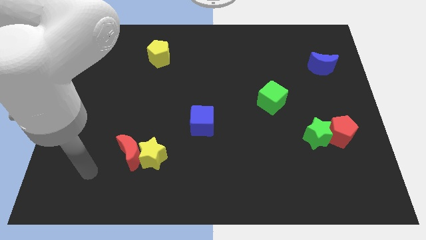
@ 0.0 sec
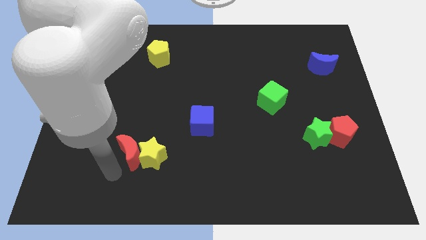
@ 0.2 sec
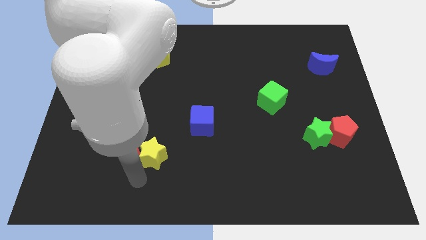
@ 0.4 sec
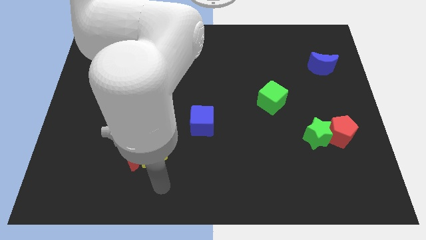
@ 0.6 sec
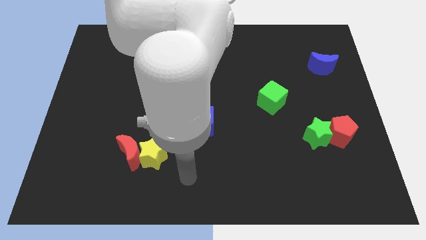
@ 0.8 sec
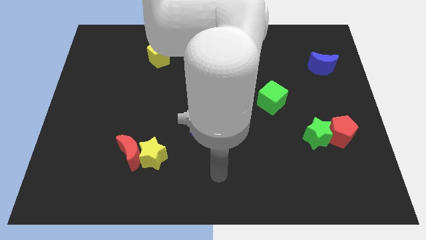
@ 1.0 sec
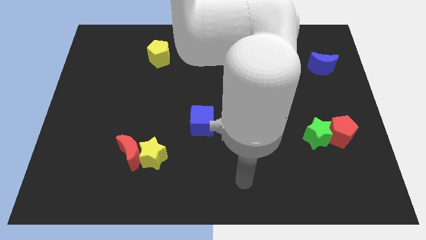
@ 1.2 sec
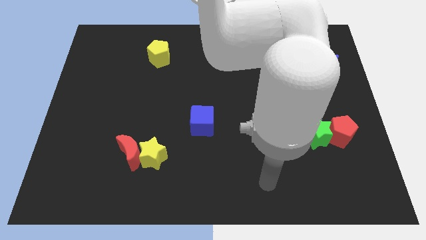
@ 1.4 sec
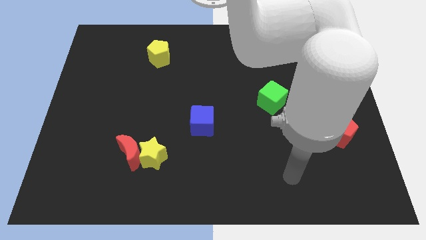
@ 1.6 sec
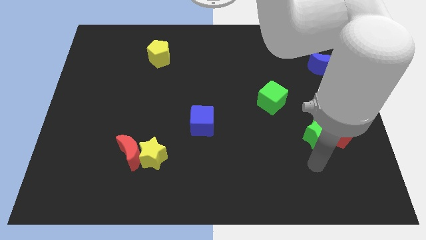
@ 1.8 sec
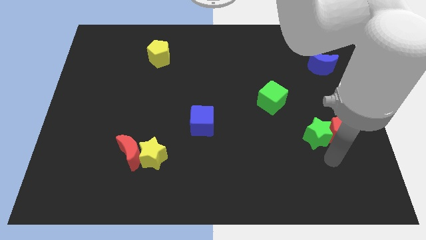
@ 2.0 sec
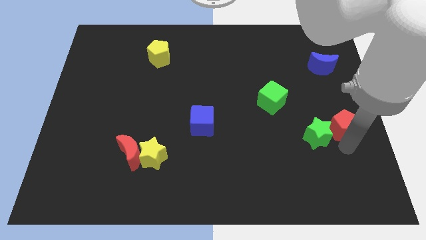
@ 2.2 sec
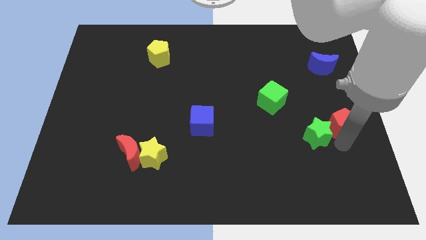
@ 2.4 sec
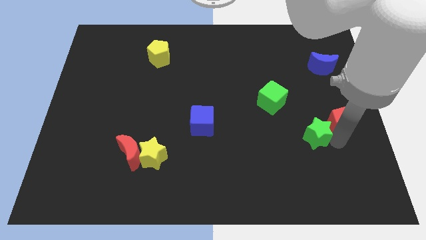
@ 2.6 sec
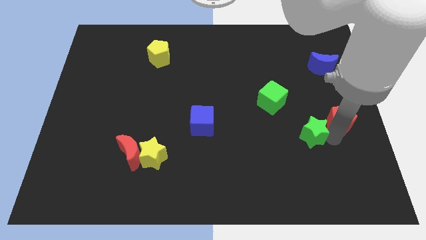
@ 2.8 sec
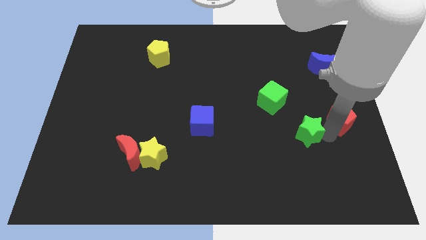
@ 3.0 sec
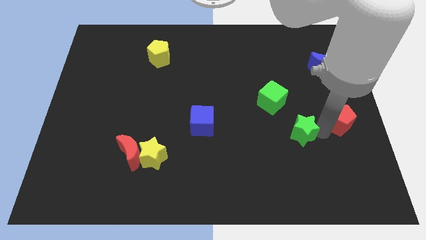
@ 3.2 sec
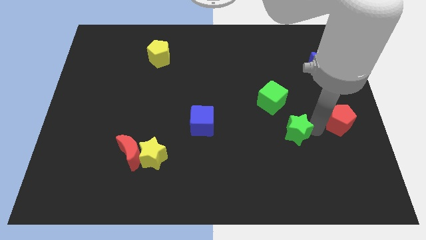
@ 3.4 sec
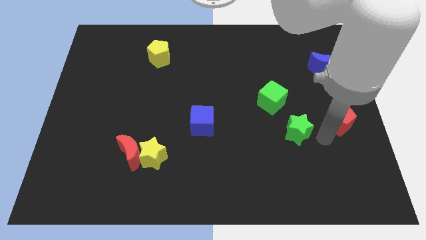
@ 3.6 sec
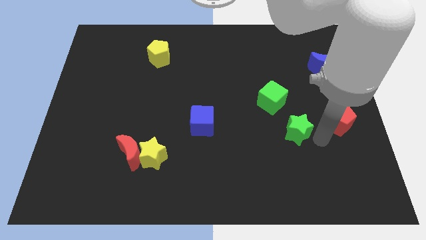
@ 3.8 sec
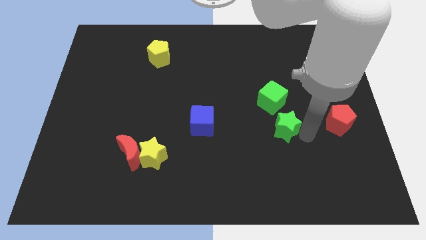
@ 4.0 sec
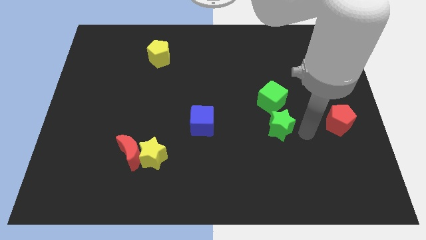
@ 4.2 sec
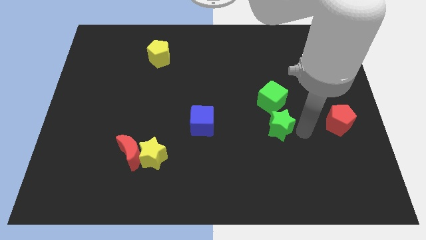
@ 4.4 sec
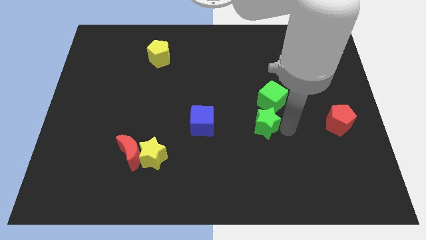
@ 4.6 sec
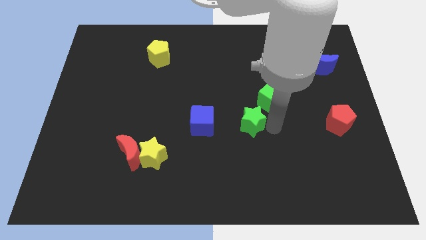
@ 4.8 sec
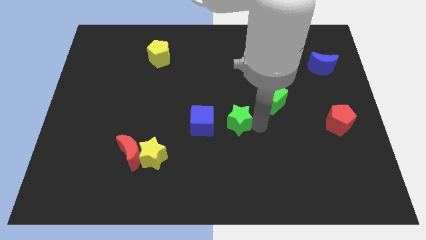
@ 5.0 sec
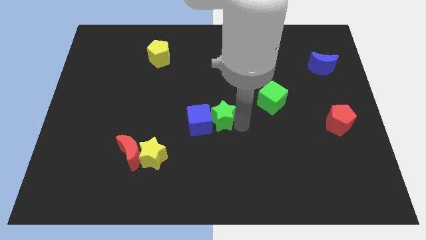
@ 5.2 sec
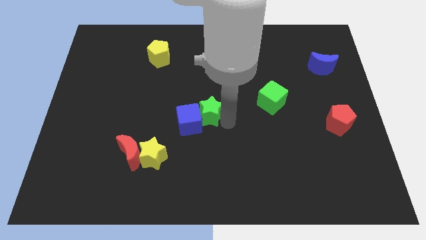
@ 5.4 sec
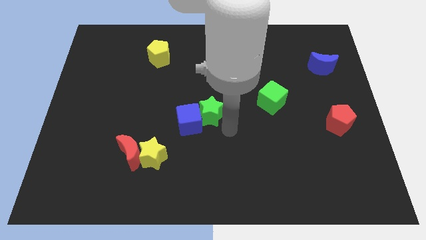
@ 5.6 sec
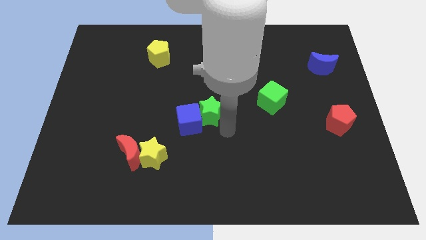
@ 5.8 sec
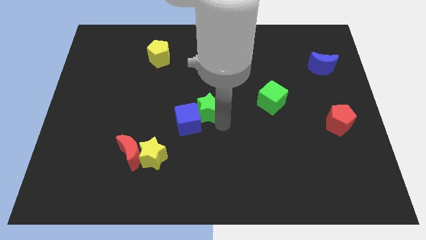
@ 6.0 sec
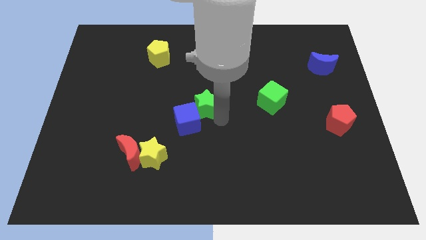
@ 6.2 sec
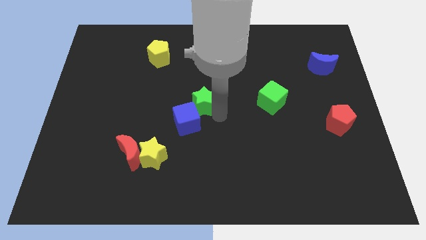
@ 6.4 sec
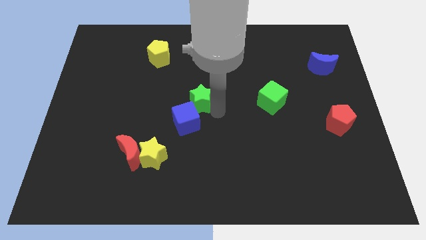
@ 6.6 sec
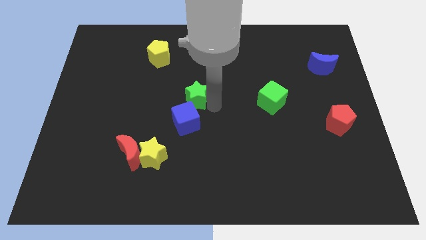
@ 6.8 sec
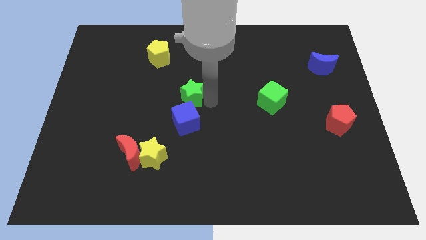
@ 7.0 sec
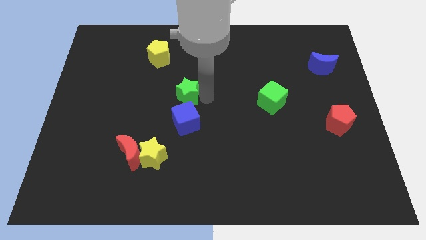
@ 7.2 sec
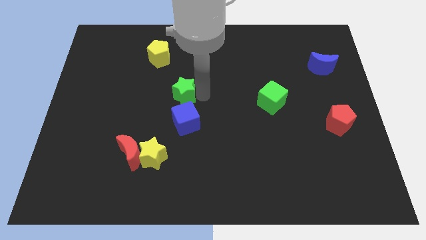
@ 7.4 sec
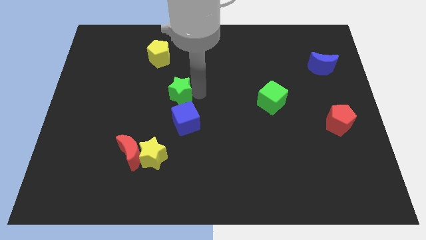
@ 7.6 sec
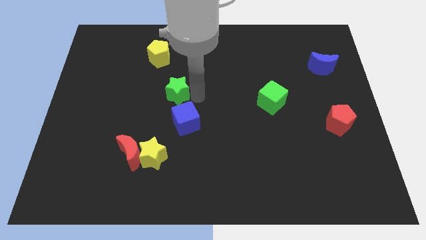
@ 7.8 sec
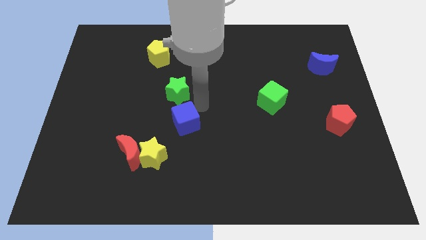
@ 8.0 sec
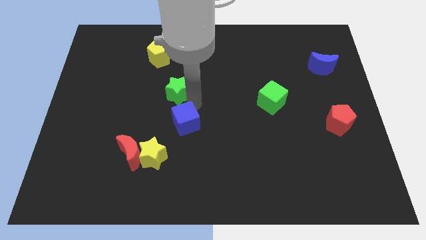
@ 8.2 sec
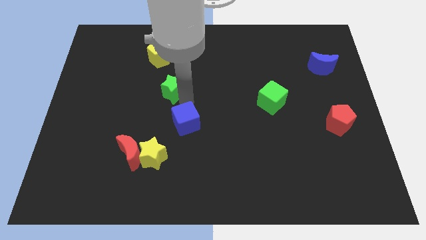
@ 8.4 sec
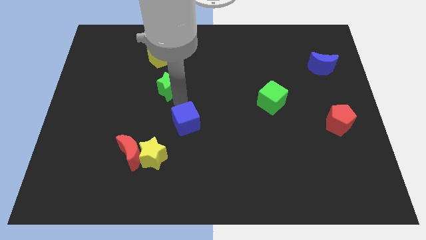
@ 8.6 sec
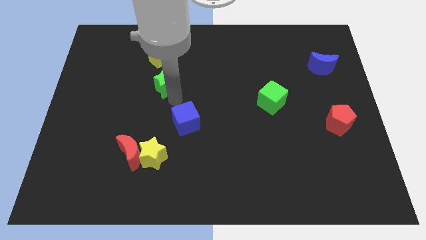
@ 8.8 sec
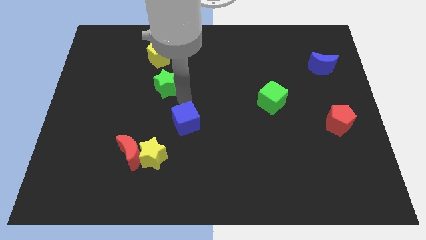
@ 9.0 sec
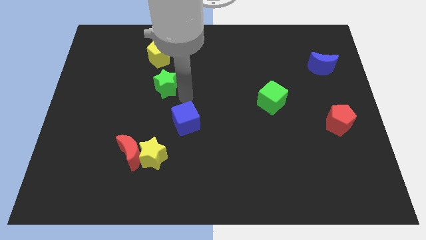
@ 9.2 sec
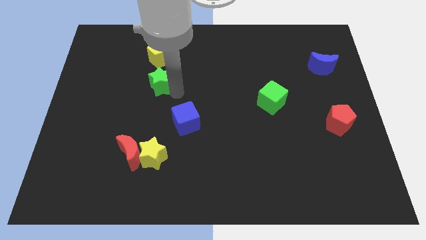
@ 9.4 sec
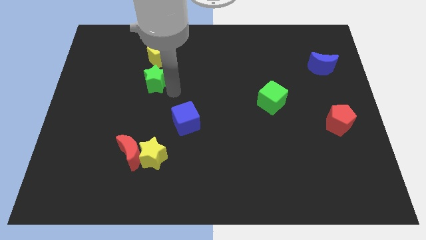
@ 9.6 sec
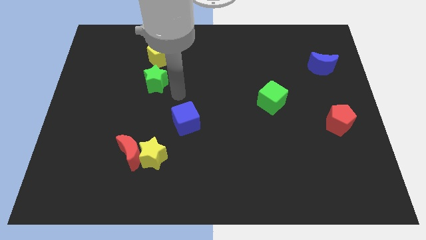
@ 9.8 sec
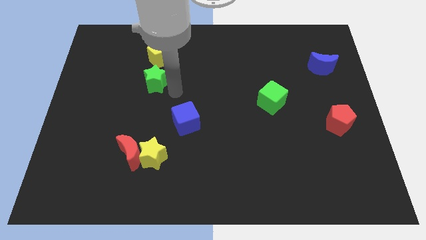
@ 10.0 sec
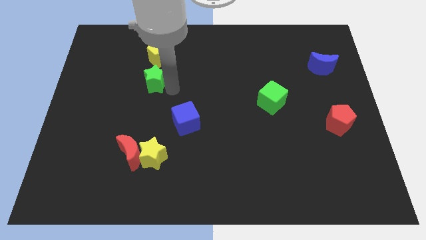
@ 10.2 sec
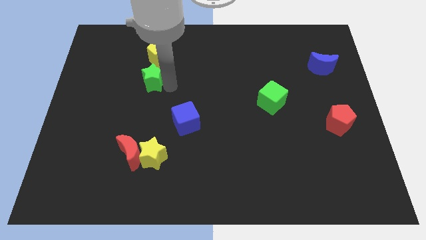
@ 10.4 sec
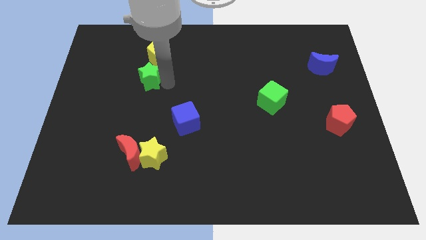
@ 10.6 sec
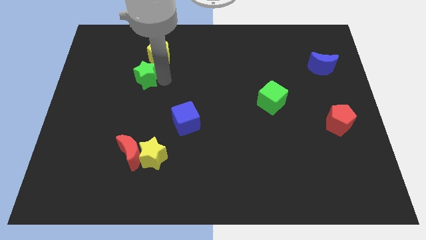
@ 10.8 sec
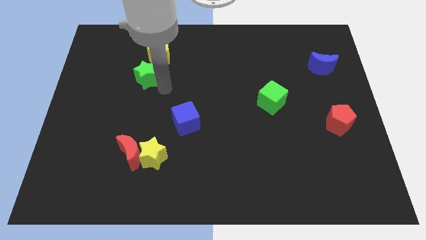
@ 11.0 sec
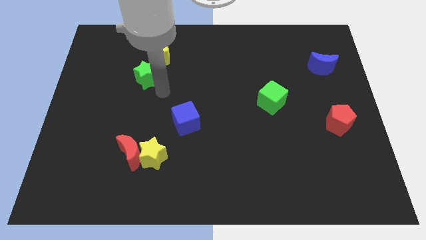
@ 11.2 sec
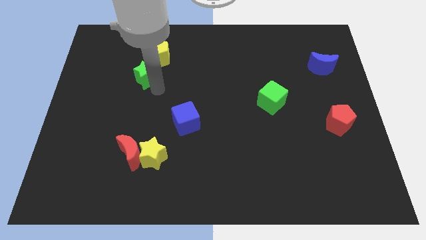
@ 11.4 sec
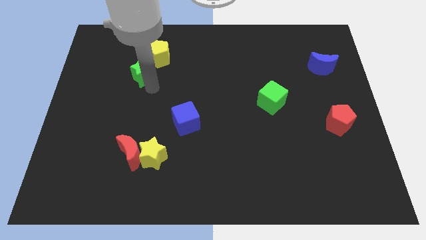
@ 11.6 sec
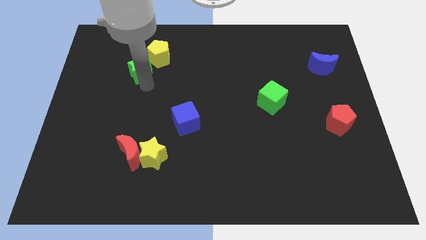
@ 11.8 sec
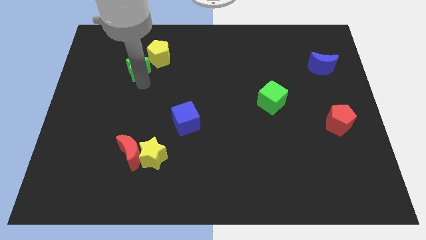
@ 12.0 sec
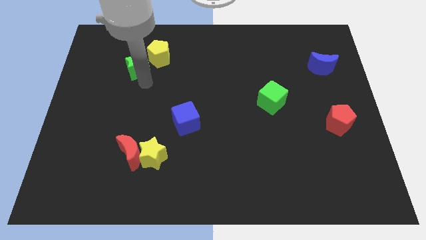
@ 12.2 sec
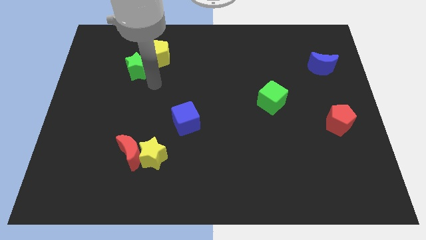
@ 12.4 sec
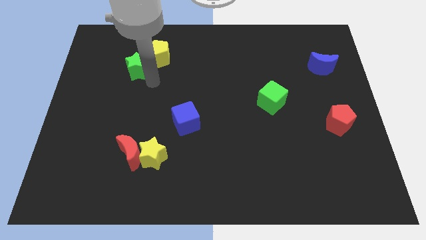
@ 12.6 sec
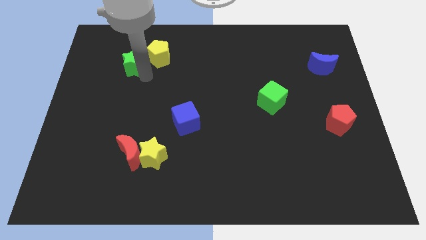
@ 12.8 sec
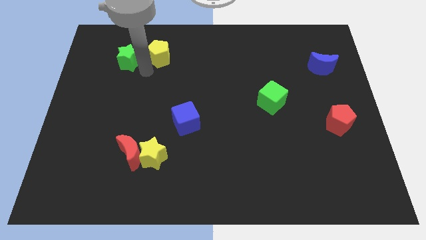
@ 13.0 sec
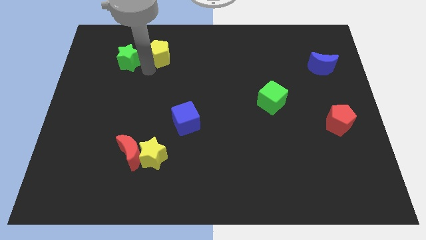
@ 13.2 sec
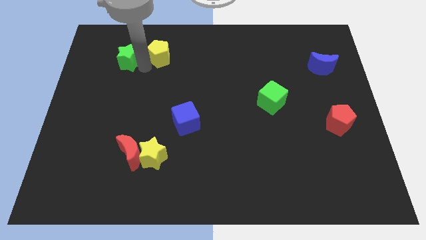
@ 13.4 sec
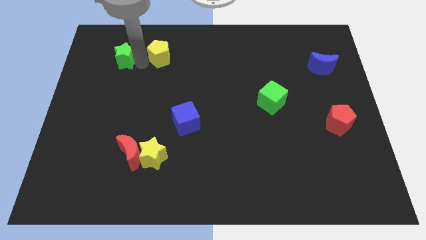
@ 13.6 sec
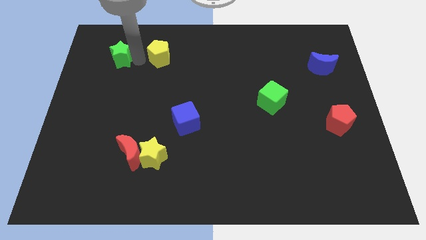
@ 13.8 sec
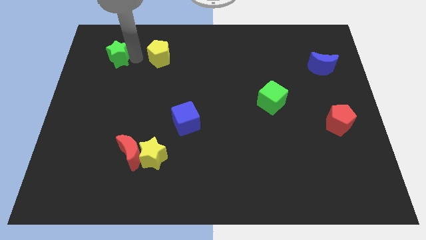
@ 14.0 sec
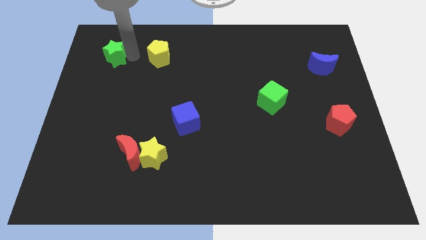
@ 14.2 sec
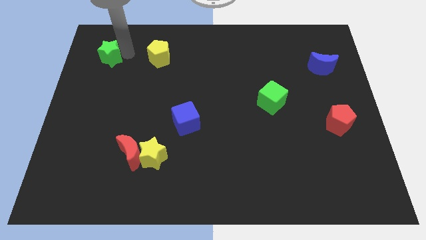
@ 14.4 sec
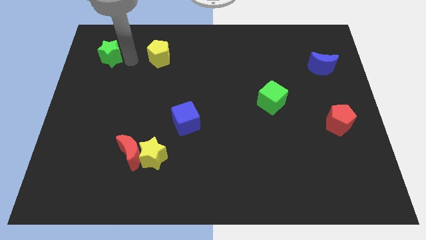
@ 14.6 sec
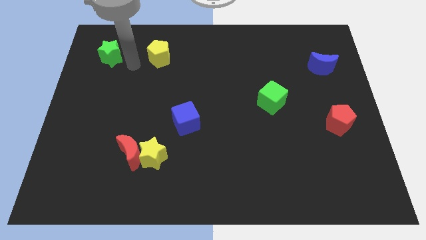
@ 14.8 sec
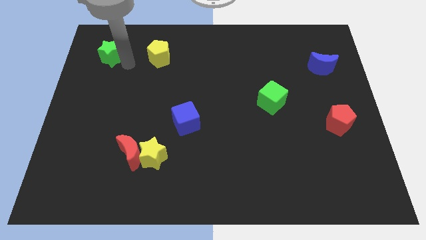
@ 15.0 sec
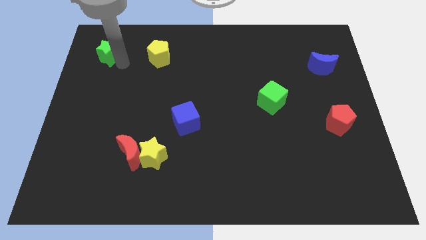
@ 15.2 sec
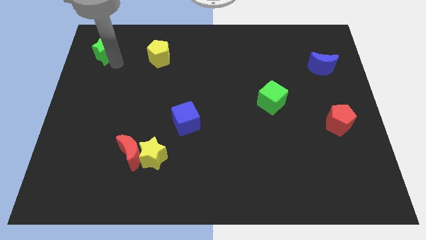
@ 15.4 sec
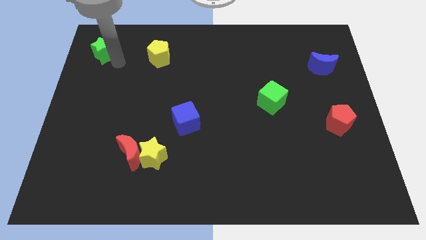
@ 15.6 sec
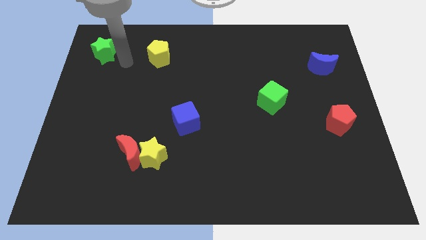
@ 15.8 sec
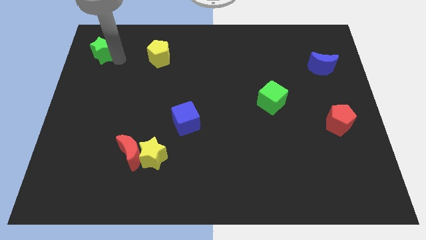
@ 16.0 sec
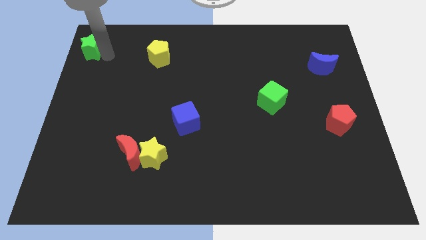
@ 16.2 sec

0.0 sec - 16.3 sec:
slide the green star to the top left
